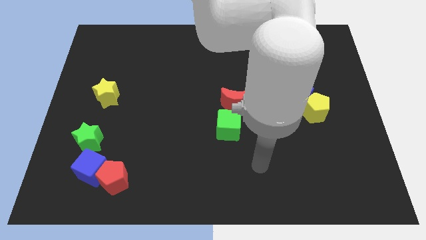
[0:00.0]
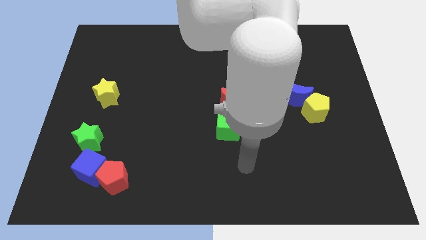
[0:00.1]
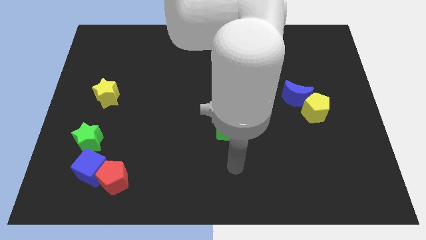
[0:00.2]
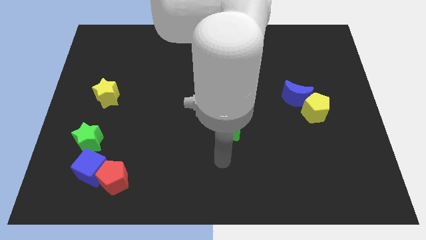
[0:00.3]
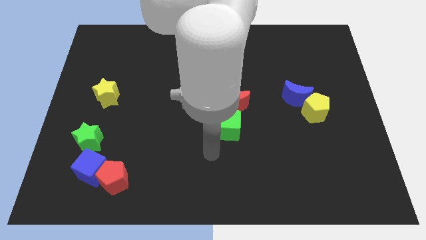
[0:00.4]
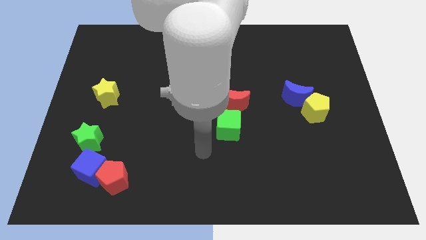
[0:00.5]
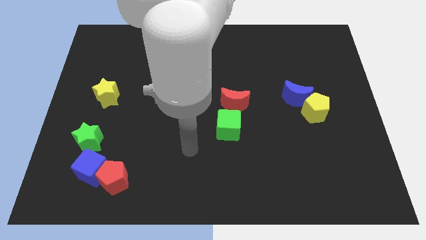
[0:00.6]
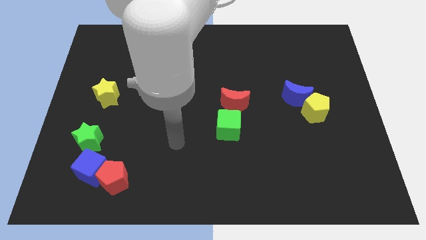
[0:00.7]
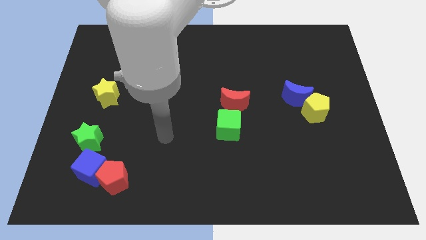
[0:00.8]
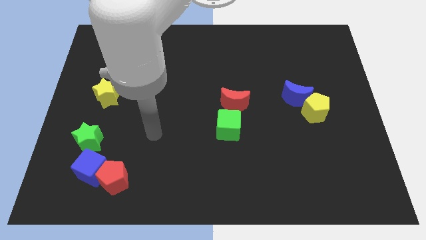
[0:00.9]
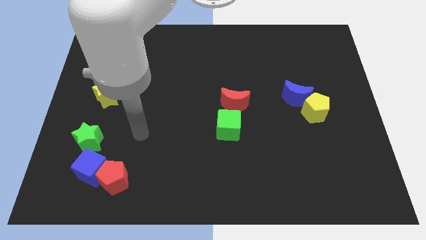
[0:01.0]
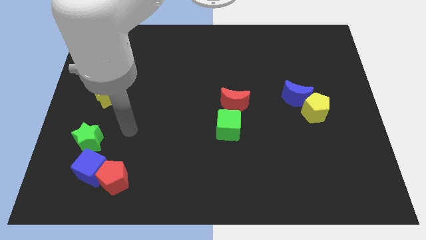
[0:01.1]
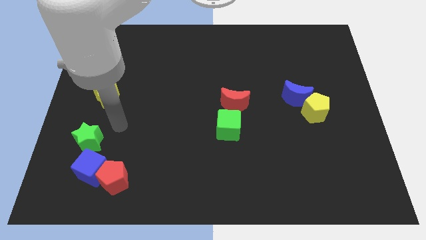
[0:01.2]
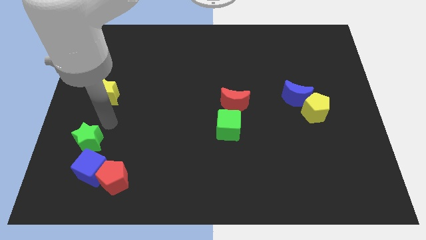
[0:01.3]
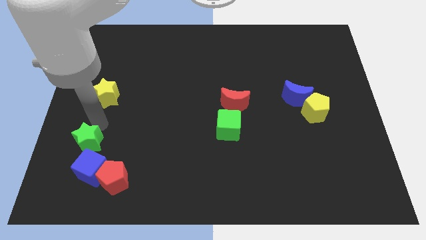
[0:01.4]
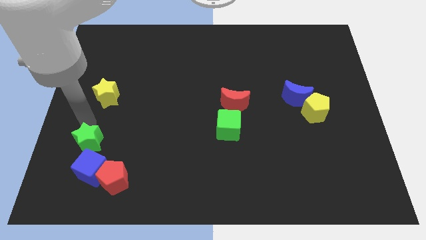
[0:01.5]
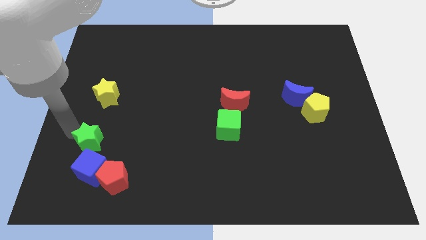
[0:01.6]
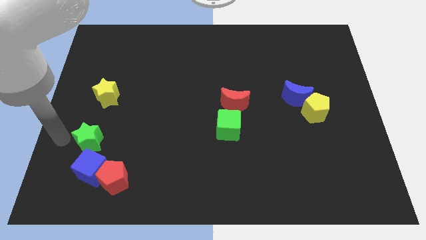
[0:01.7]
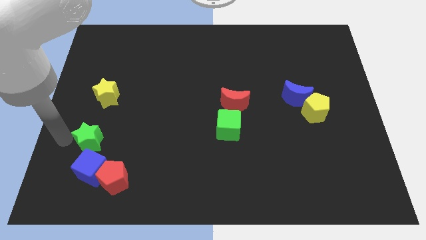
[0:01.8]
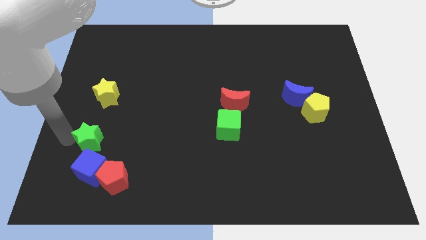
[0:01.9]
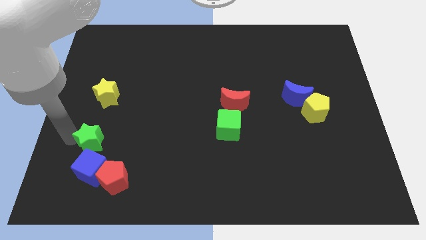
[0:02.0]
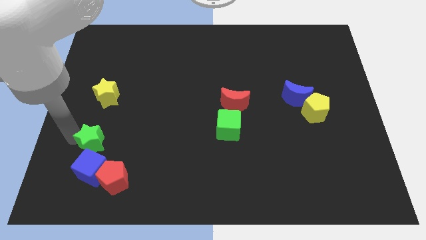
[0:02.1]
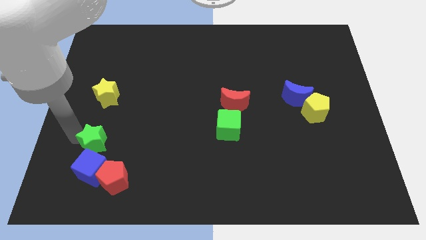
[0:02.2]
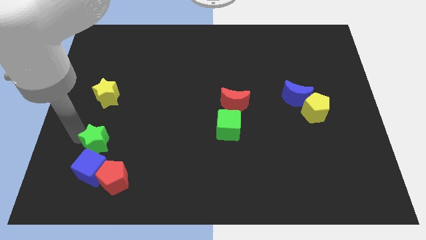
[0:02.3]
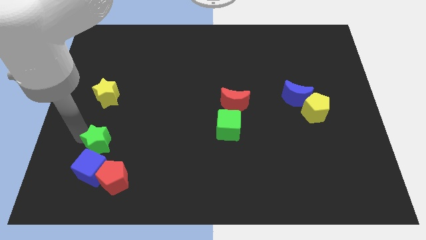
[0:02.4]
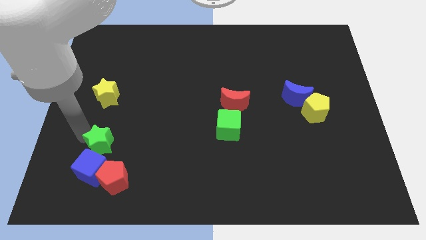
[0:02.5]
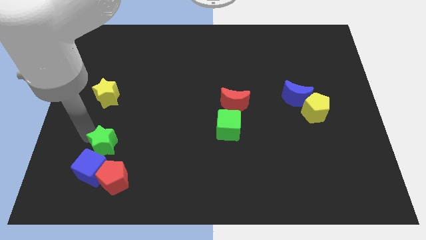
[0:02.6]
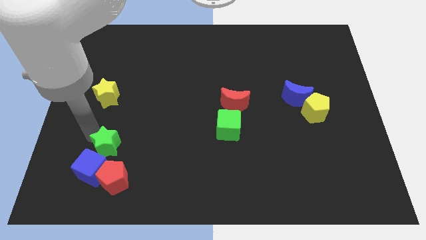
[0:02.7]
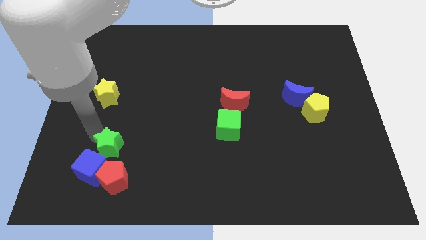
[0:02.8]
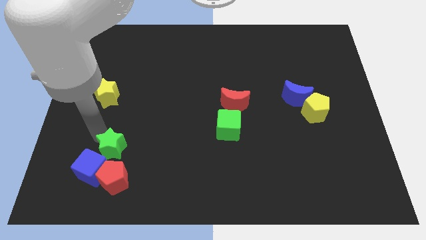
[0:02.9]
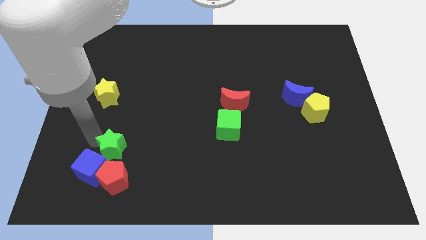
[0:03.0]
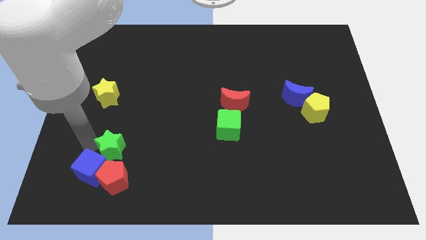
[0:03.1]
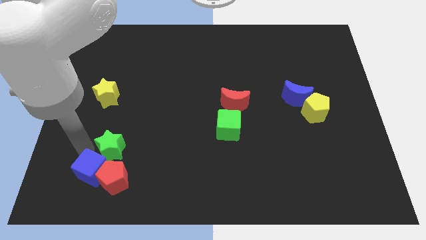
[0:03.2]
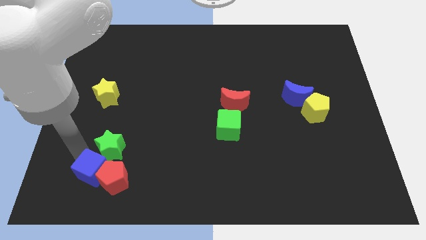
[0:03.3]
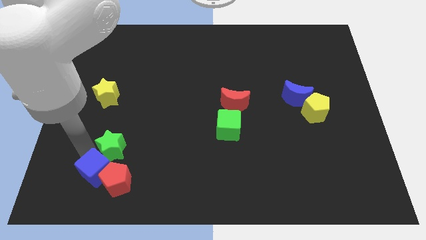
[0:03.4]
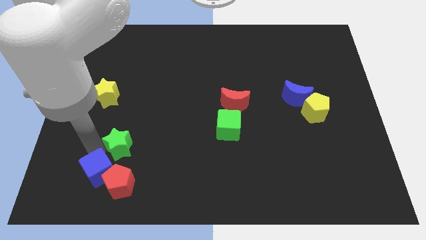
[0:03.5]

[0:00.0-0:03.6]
slide the green star a little right

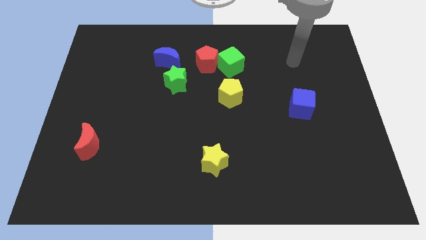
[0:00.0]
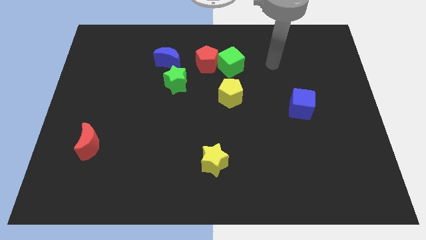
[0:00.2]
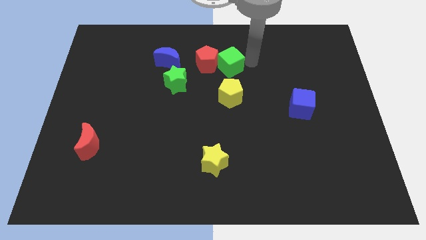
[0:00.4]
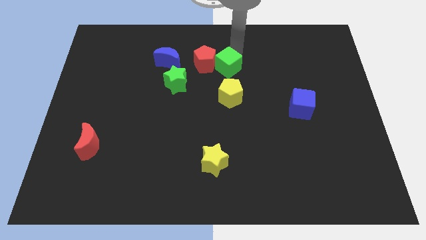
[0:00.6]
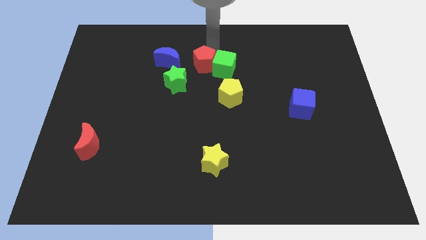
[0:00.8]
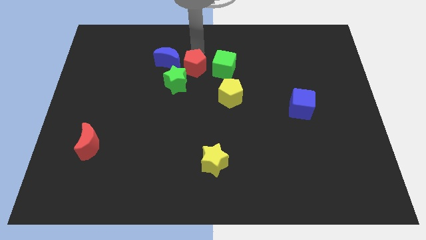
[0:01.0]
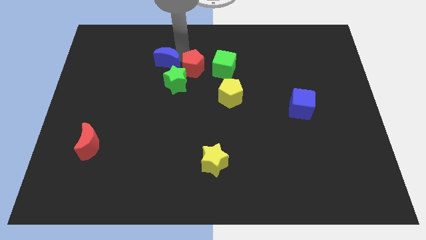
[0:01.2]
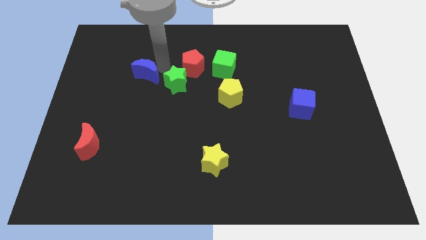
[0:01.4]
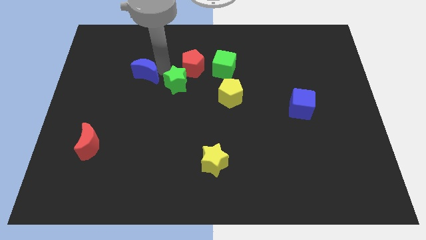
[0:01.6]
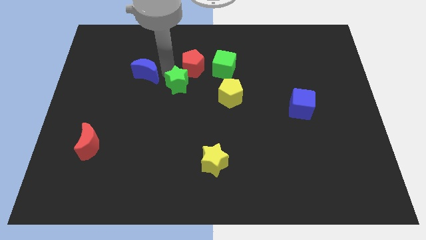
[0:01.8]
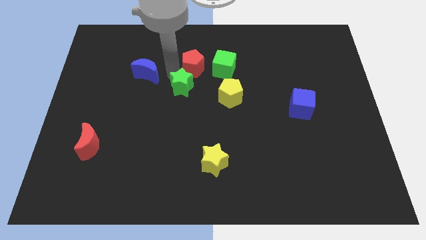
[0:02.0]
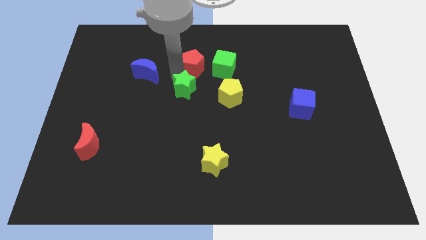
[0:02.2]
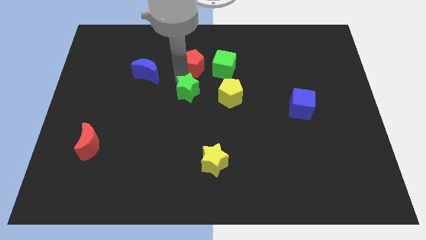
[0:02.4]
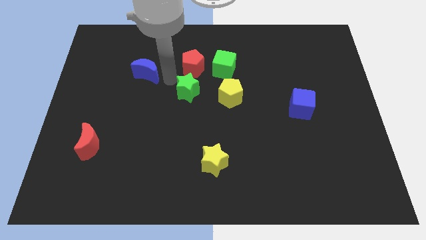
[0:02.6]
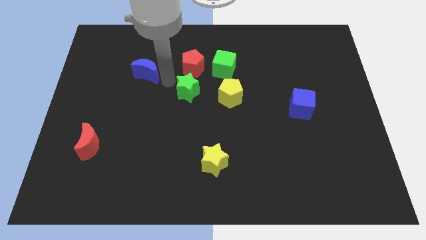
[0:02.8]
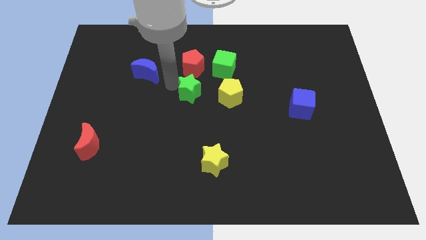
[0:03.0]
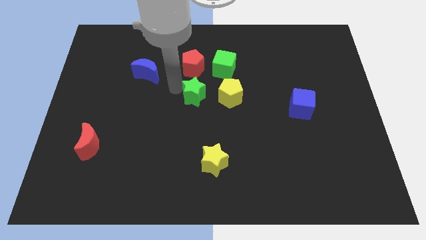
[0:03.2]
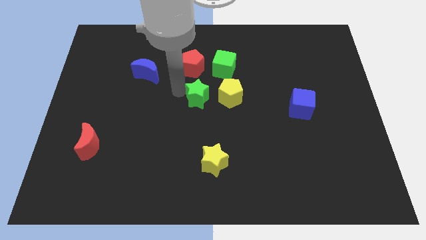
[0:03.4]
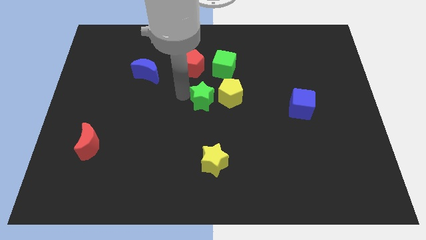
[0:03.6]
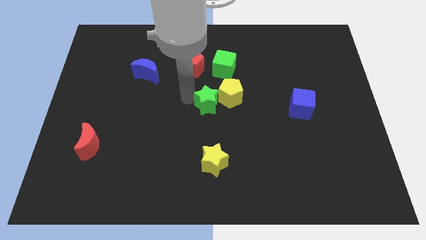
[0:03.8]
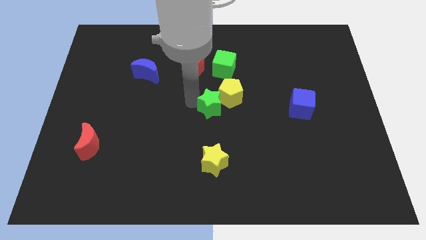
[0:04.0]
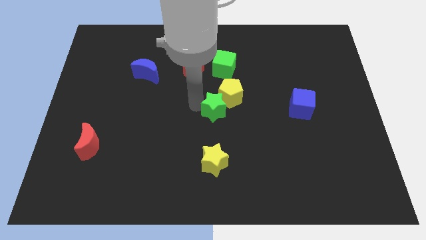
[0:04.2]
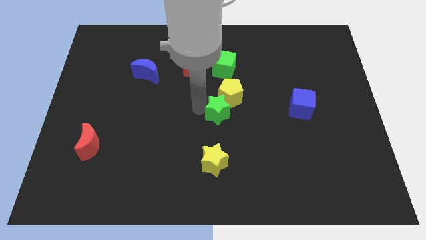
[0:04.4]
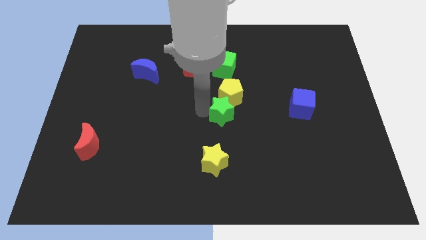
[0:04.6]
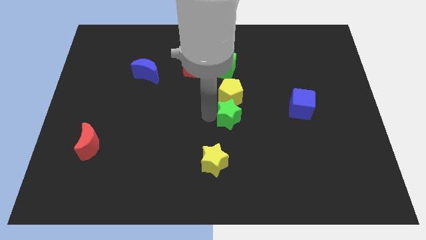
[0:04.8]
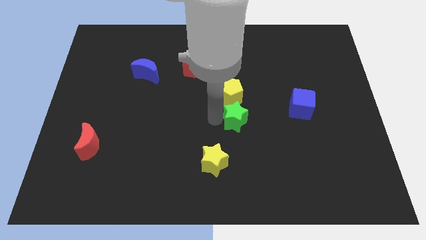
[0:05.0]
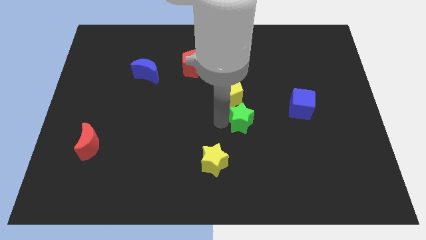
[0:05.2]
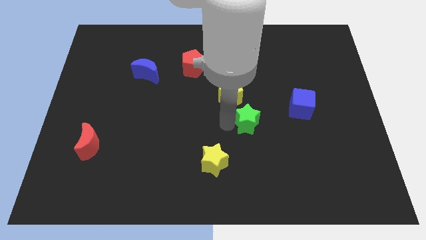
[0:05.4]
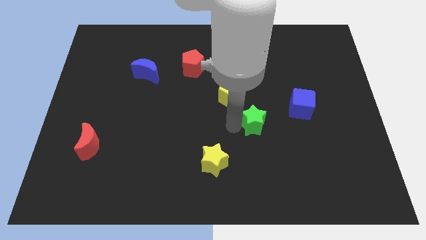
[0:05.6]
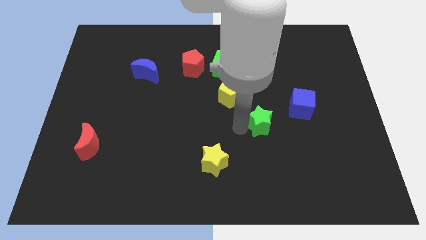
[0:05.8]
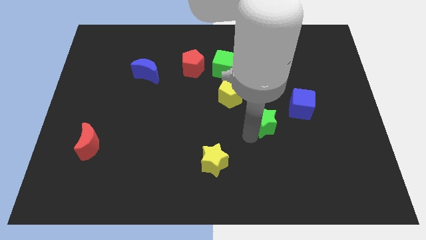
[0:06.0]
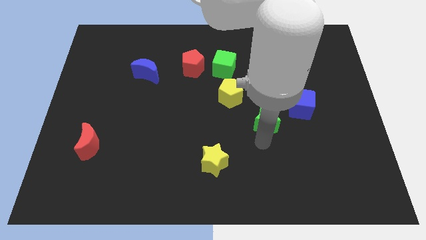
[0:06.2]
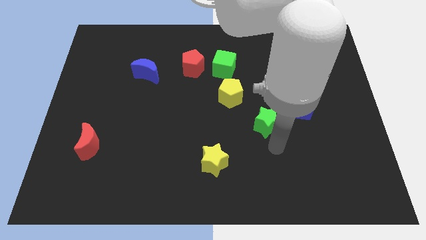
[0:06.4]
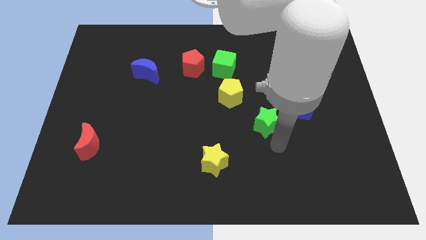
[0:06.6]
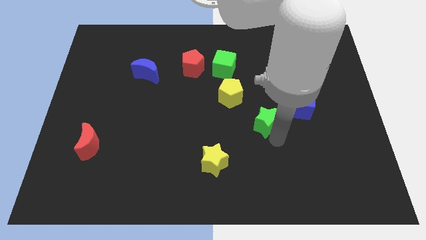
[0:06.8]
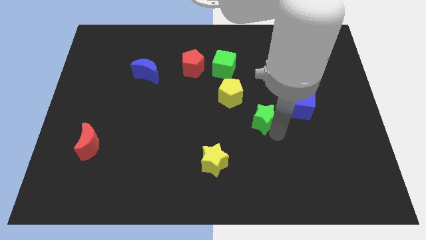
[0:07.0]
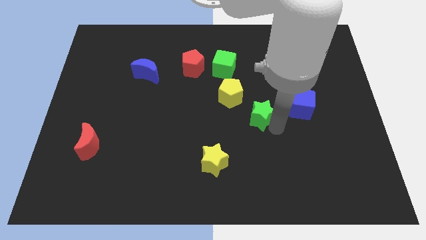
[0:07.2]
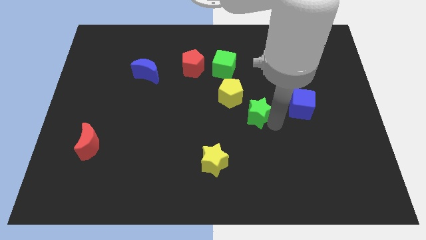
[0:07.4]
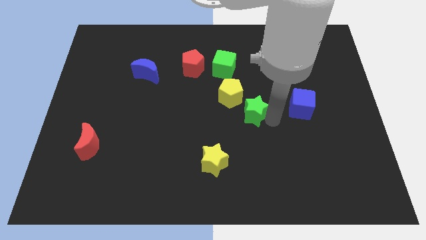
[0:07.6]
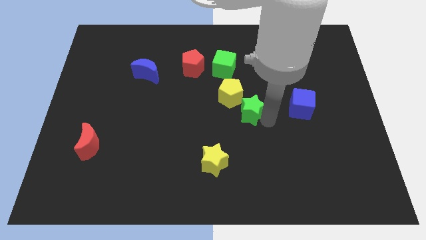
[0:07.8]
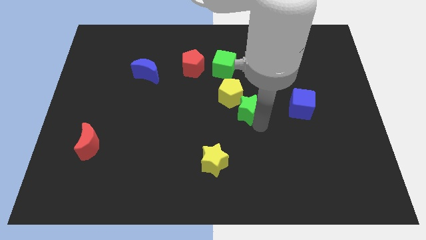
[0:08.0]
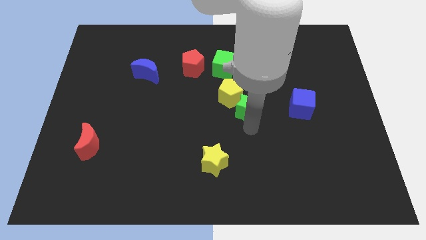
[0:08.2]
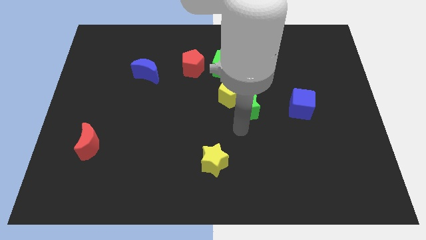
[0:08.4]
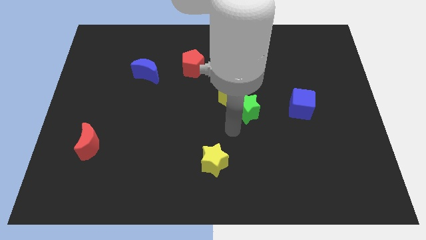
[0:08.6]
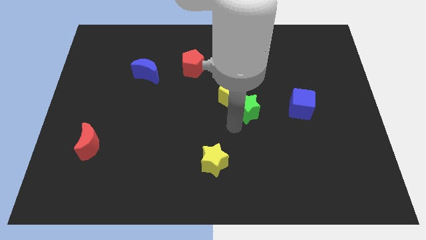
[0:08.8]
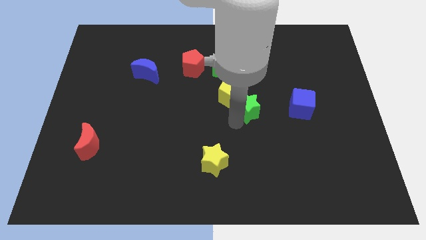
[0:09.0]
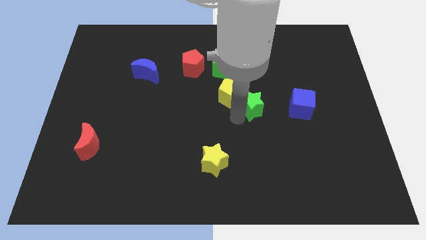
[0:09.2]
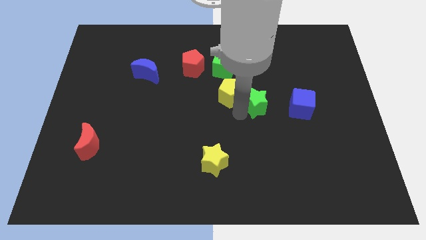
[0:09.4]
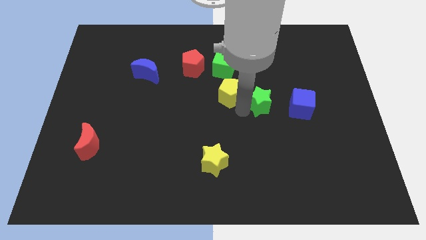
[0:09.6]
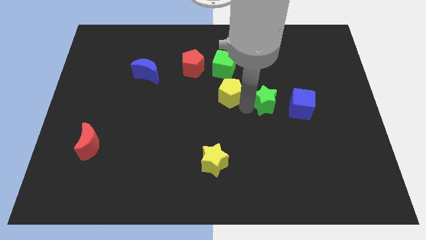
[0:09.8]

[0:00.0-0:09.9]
push the green star right
